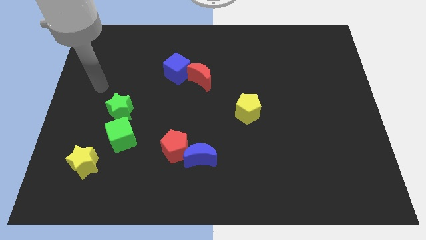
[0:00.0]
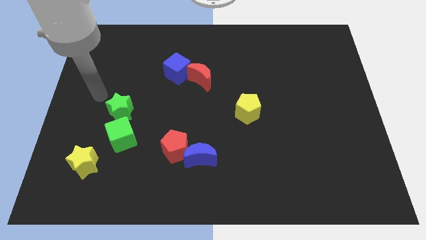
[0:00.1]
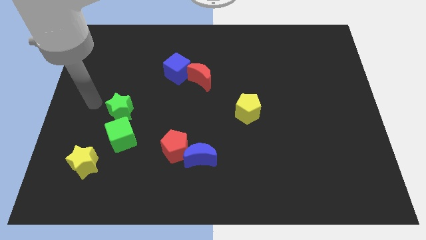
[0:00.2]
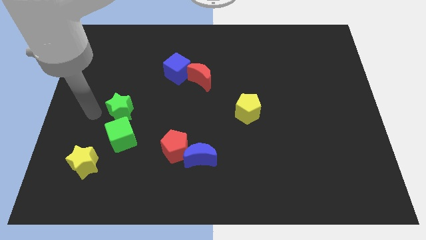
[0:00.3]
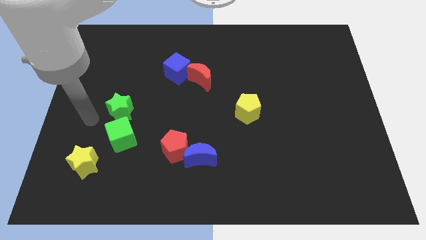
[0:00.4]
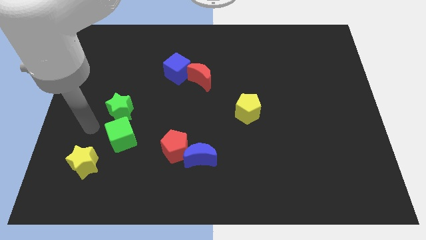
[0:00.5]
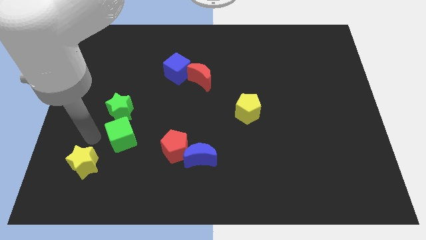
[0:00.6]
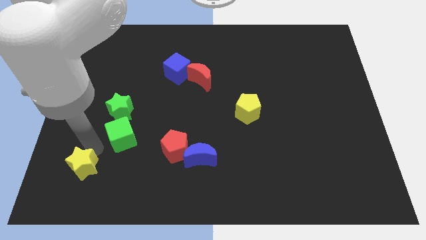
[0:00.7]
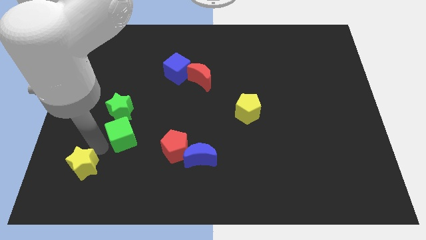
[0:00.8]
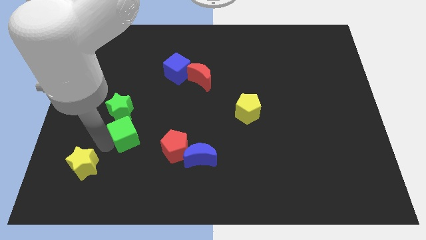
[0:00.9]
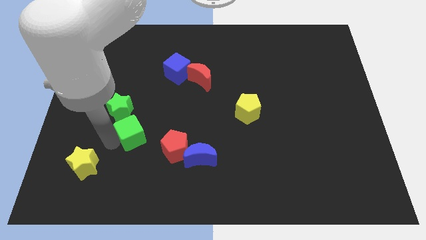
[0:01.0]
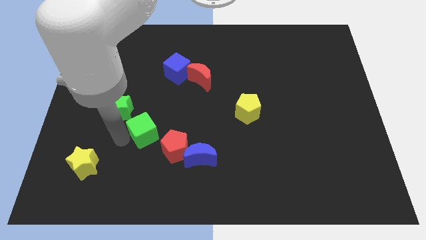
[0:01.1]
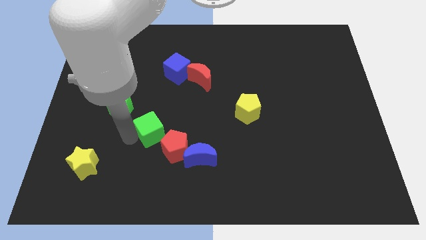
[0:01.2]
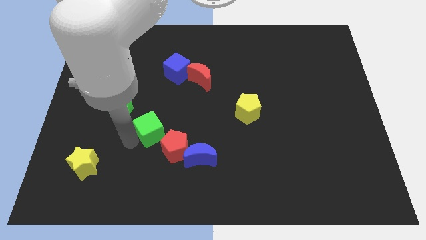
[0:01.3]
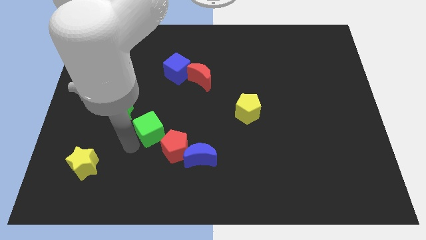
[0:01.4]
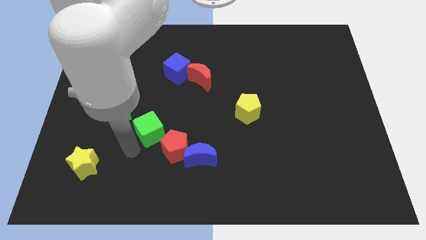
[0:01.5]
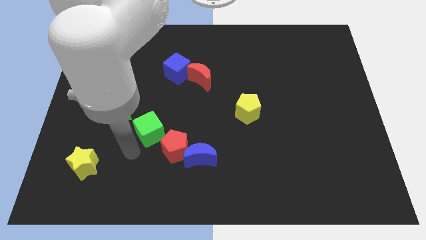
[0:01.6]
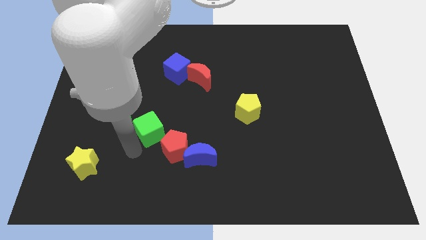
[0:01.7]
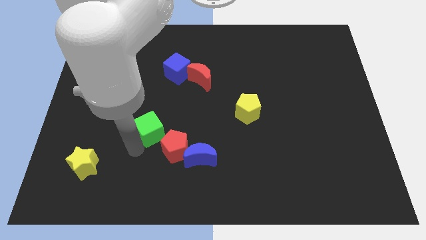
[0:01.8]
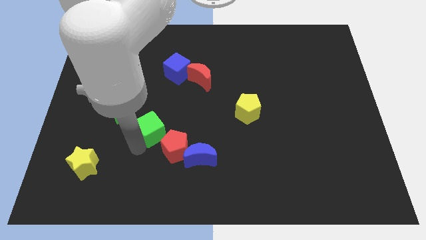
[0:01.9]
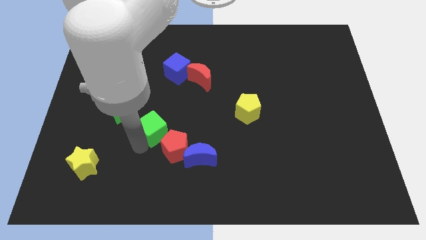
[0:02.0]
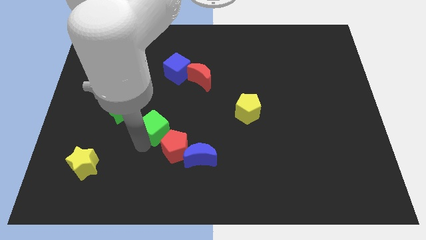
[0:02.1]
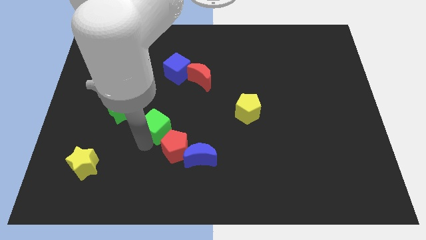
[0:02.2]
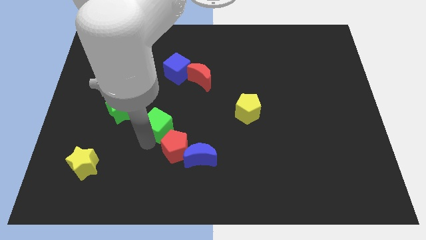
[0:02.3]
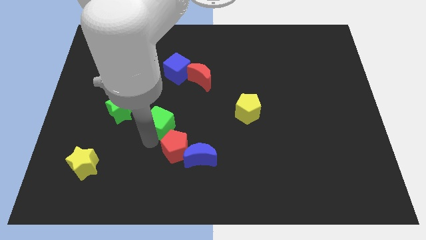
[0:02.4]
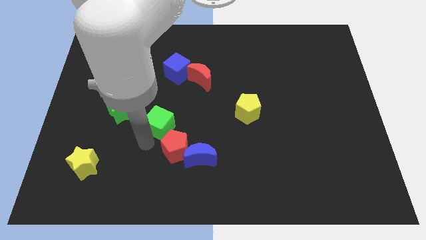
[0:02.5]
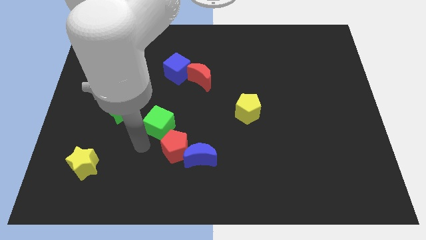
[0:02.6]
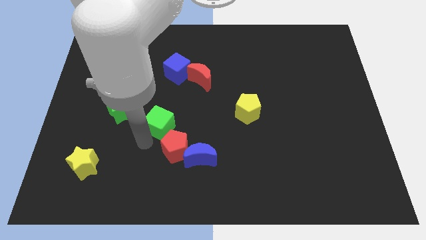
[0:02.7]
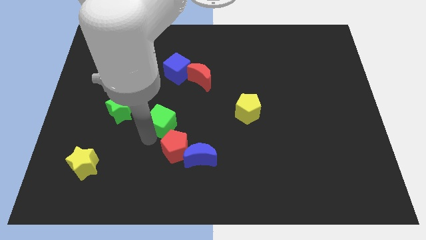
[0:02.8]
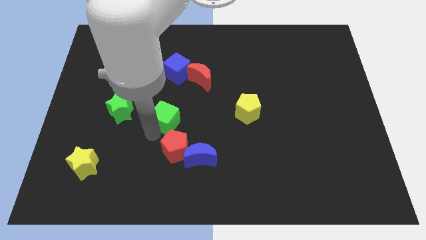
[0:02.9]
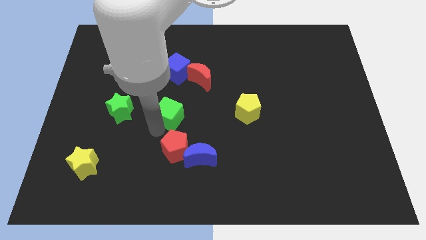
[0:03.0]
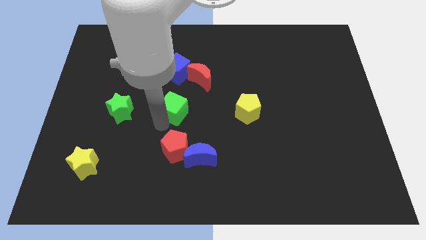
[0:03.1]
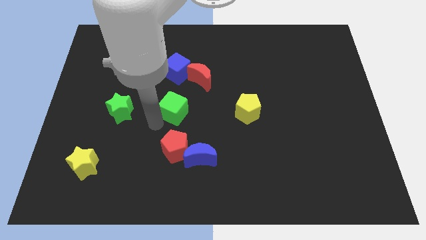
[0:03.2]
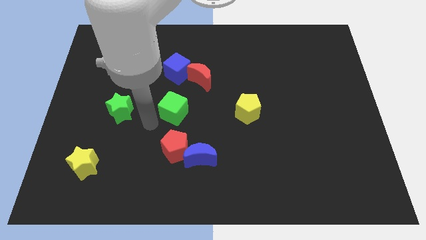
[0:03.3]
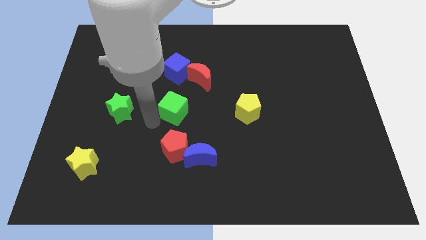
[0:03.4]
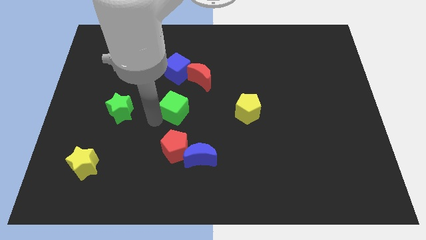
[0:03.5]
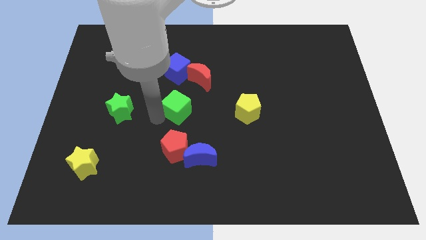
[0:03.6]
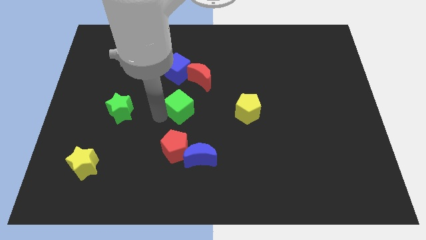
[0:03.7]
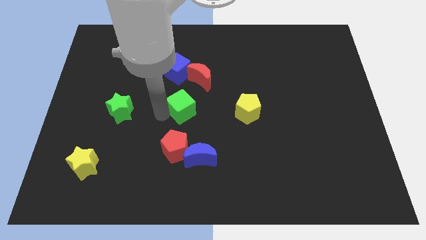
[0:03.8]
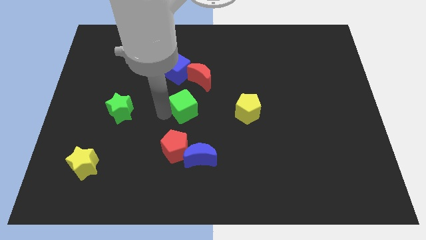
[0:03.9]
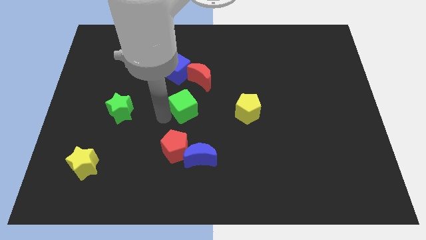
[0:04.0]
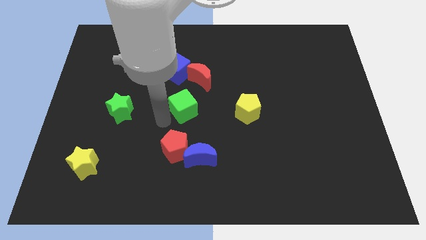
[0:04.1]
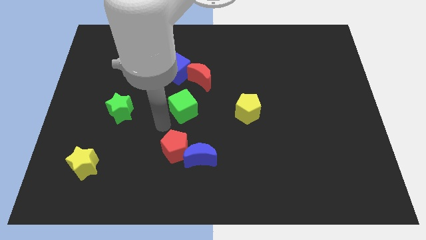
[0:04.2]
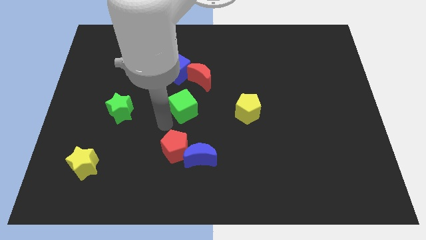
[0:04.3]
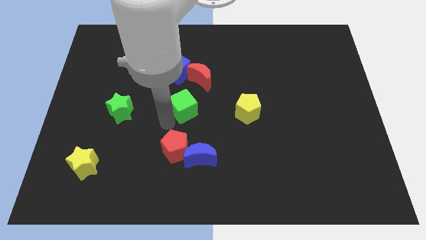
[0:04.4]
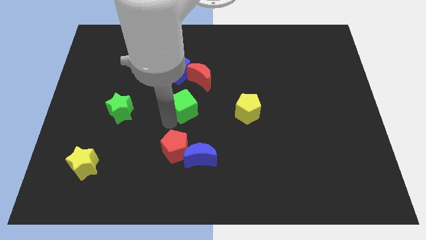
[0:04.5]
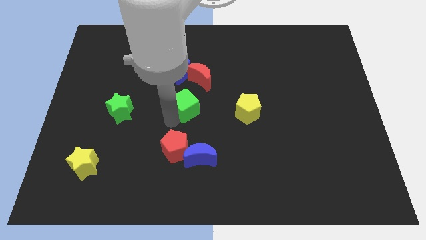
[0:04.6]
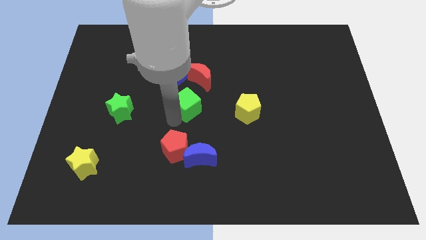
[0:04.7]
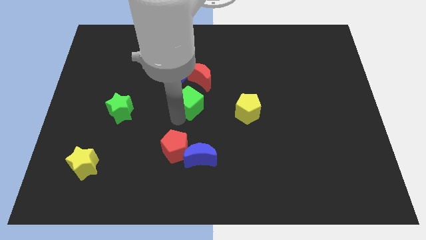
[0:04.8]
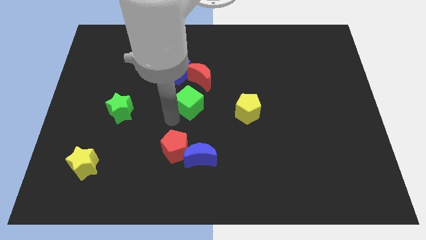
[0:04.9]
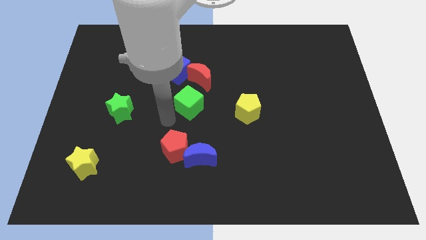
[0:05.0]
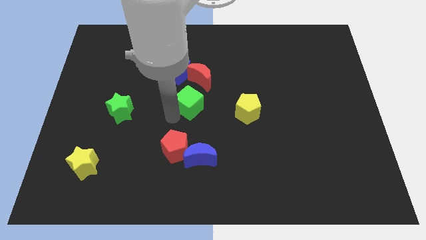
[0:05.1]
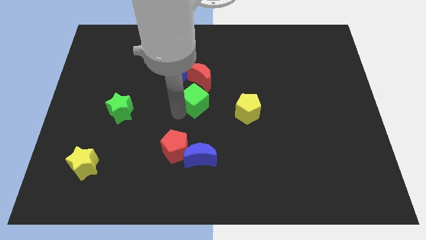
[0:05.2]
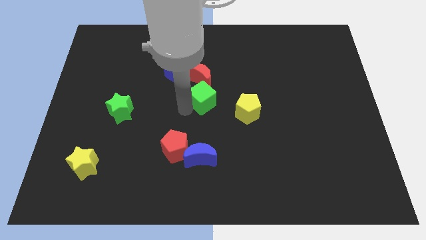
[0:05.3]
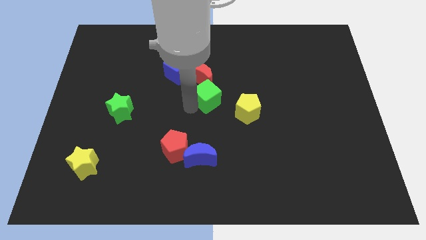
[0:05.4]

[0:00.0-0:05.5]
move the green cube diagonally up and to the right

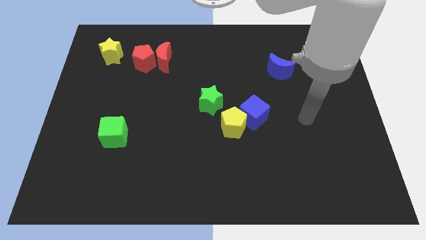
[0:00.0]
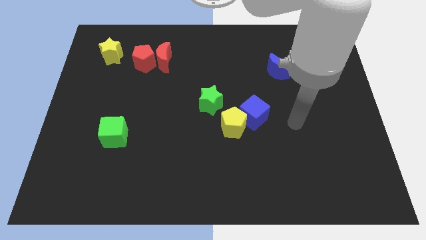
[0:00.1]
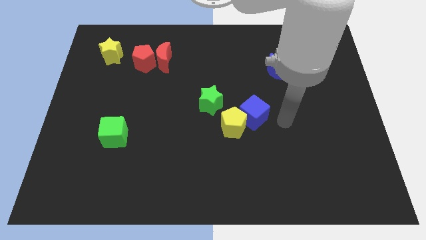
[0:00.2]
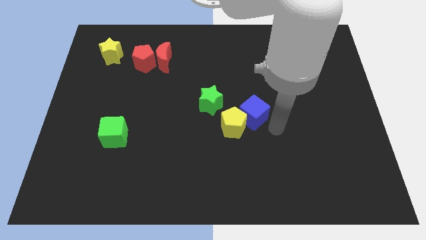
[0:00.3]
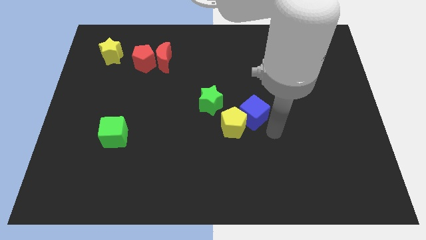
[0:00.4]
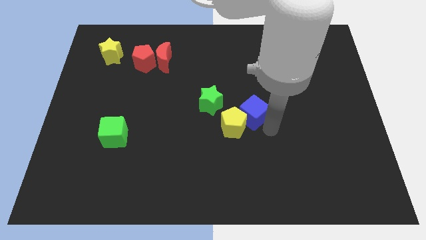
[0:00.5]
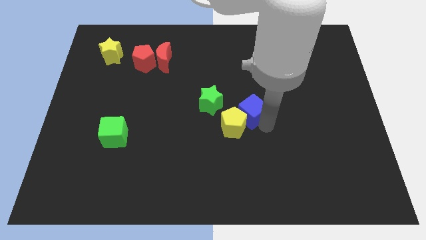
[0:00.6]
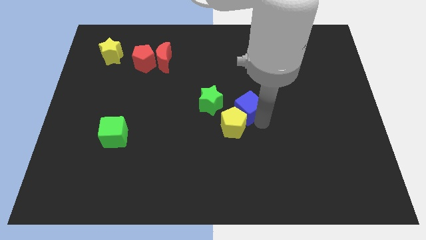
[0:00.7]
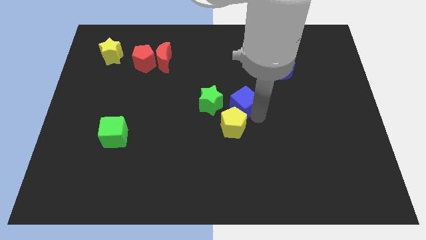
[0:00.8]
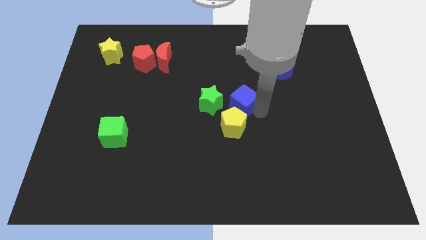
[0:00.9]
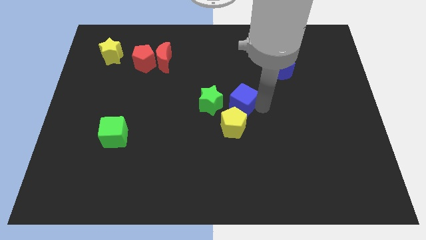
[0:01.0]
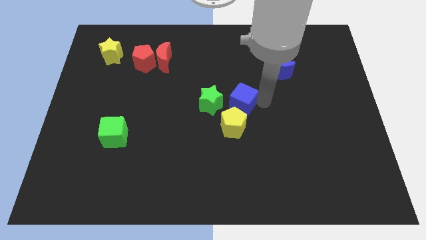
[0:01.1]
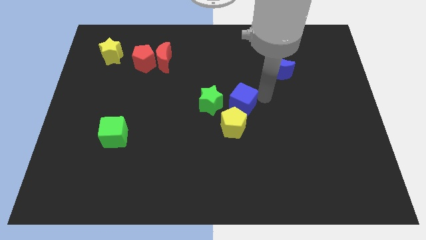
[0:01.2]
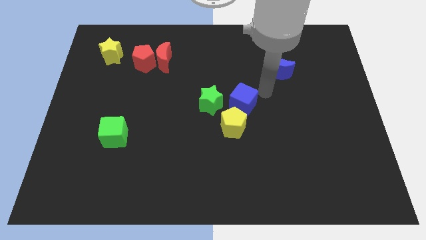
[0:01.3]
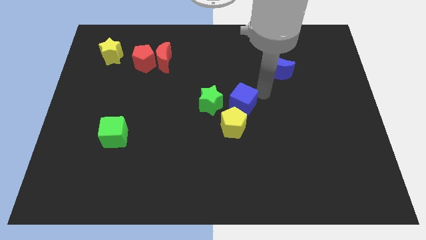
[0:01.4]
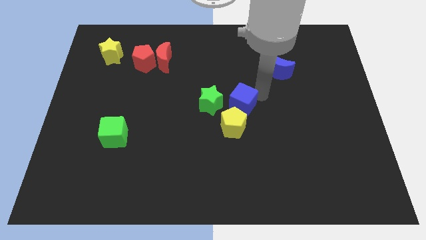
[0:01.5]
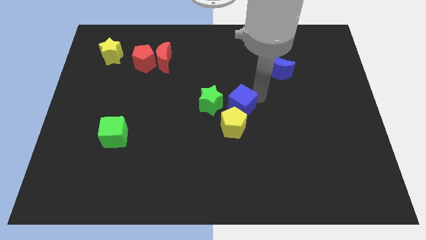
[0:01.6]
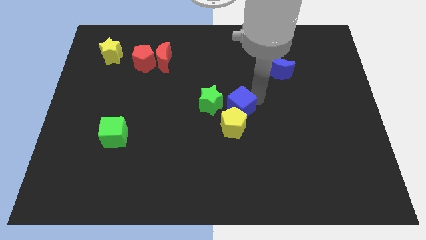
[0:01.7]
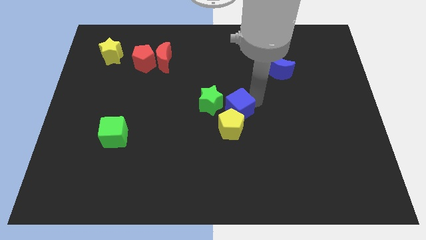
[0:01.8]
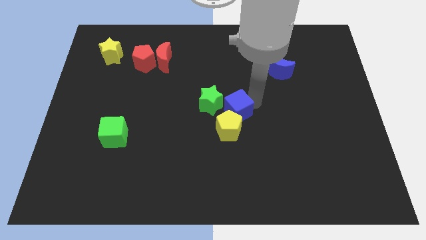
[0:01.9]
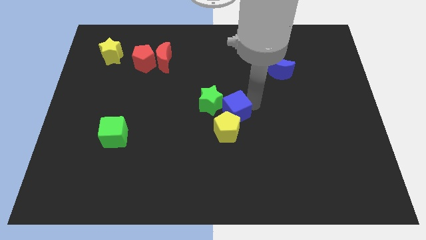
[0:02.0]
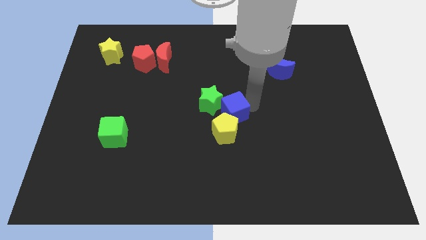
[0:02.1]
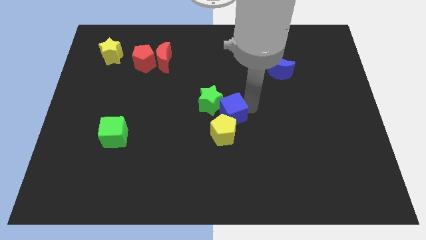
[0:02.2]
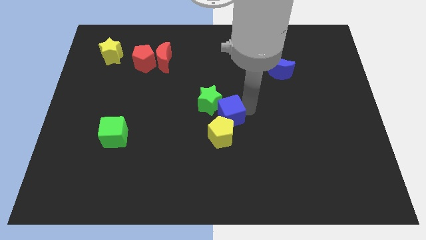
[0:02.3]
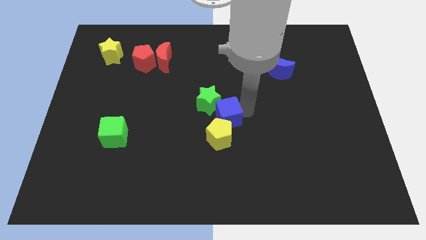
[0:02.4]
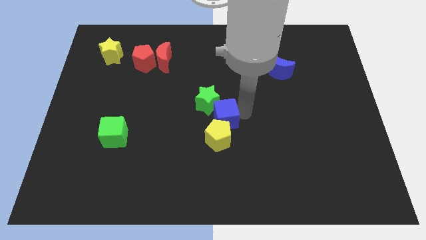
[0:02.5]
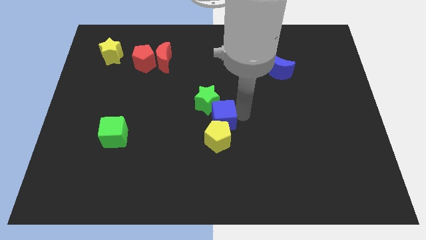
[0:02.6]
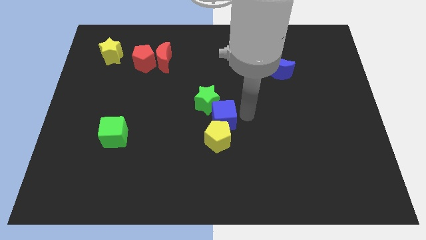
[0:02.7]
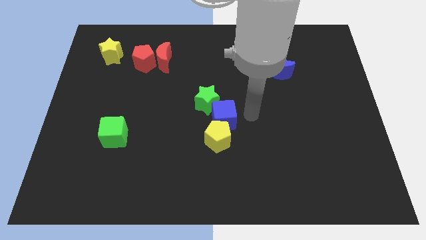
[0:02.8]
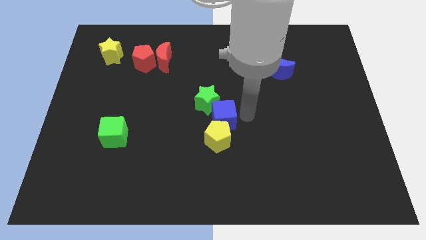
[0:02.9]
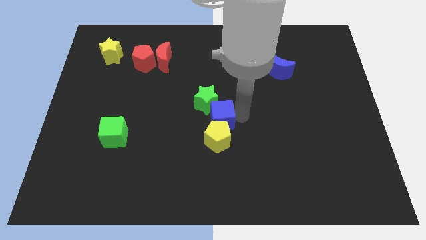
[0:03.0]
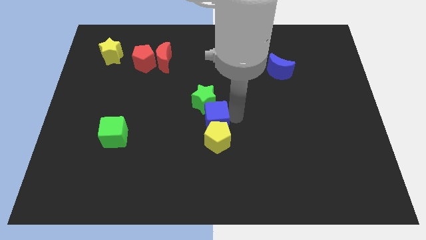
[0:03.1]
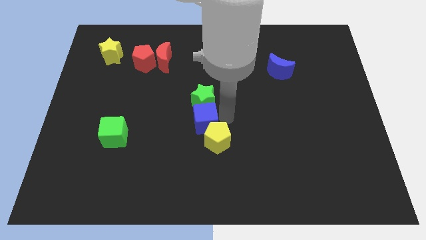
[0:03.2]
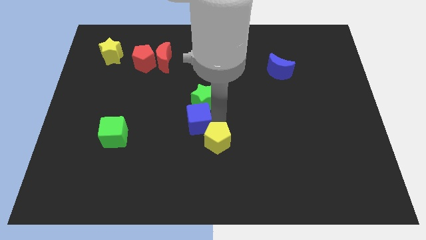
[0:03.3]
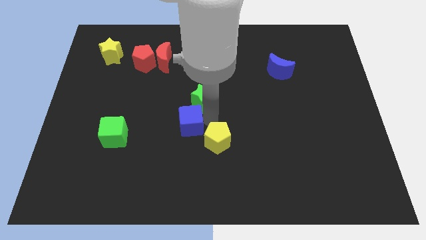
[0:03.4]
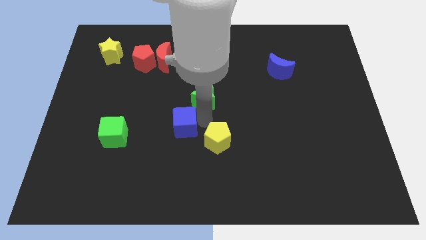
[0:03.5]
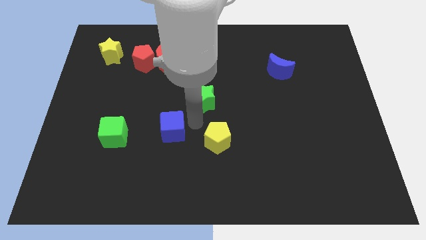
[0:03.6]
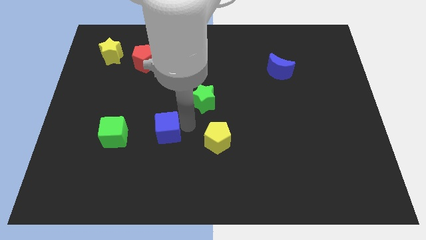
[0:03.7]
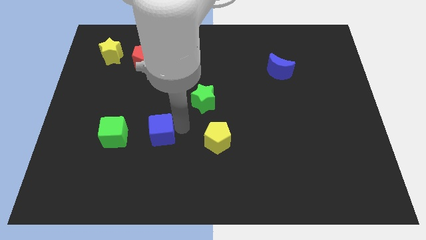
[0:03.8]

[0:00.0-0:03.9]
move the blue cube to the left
